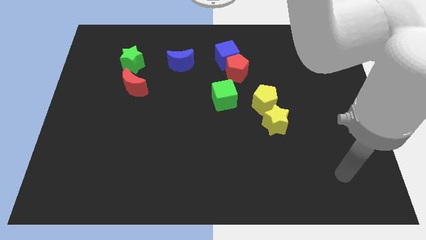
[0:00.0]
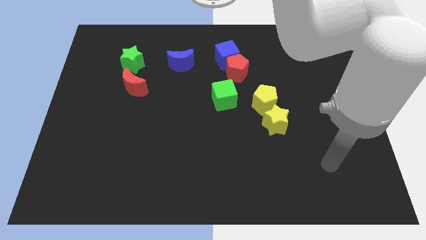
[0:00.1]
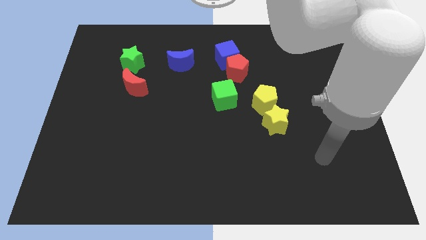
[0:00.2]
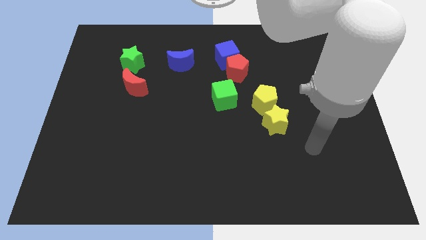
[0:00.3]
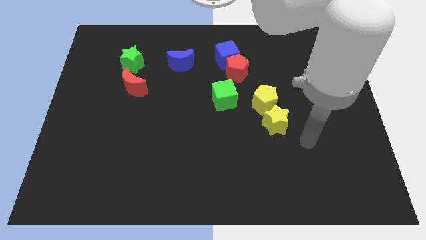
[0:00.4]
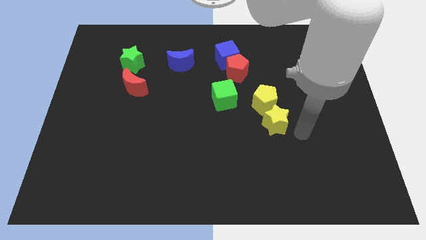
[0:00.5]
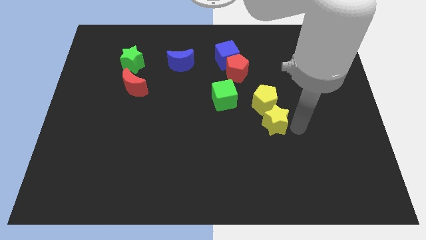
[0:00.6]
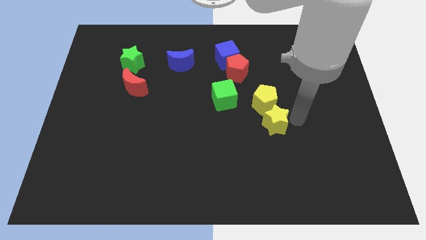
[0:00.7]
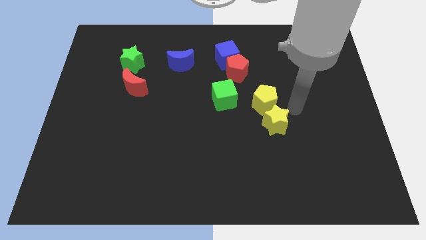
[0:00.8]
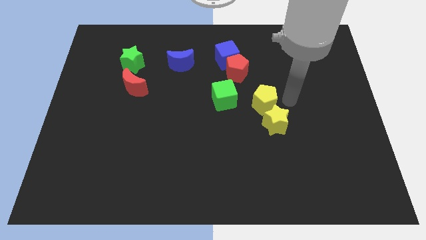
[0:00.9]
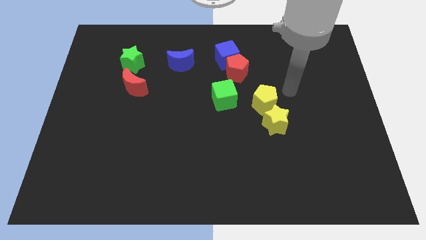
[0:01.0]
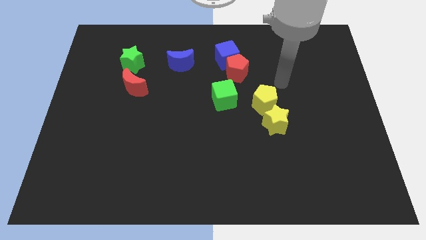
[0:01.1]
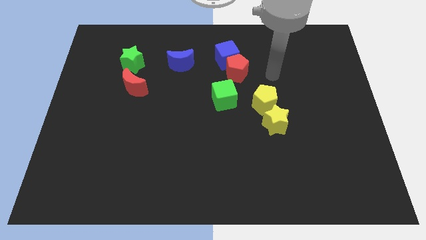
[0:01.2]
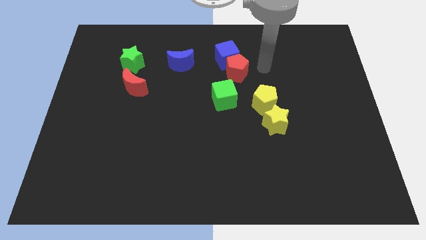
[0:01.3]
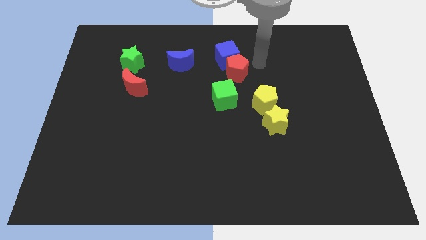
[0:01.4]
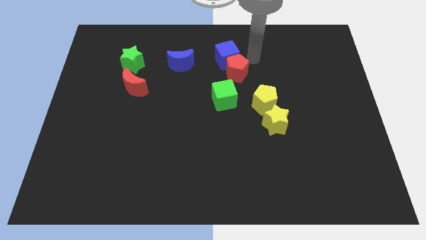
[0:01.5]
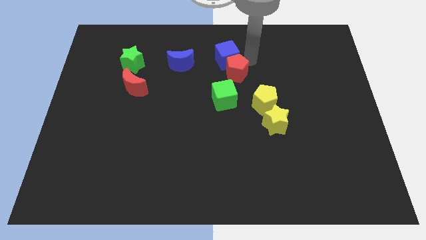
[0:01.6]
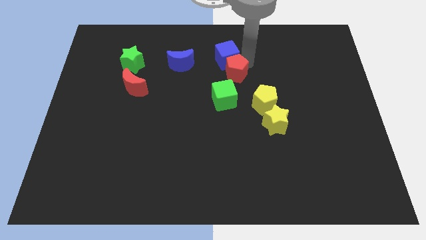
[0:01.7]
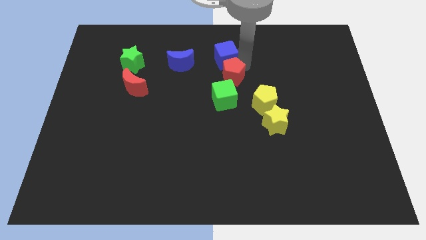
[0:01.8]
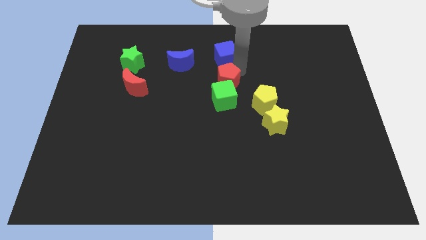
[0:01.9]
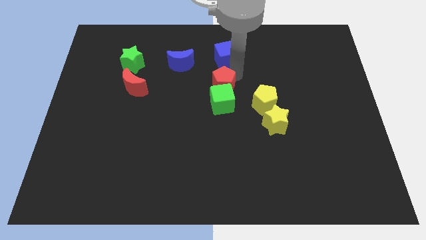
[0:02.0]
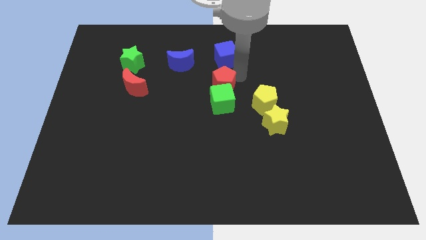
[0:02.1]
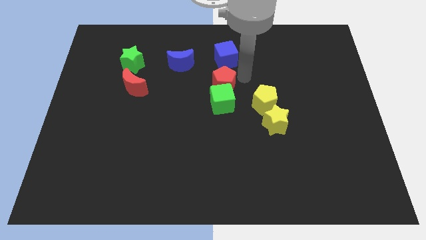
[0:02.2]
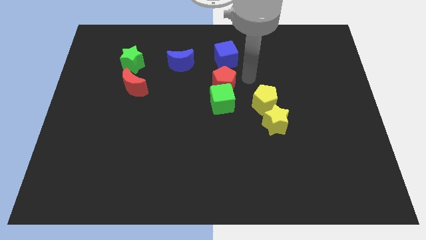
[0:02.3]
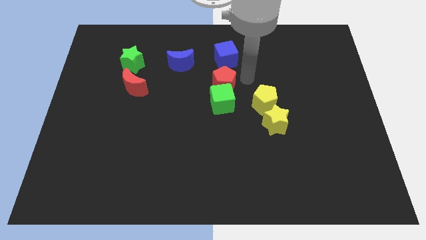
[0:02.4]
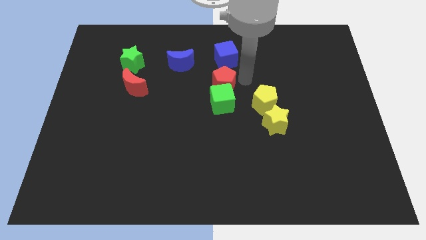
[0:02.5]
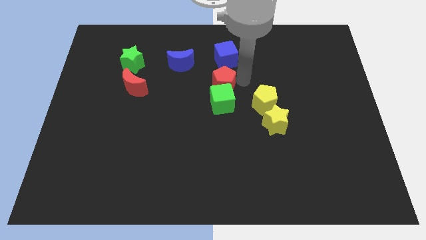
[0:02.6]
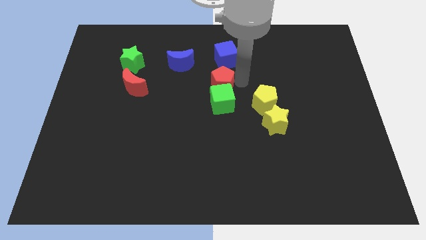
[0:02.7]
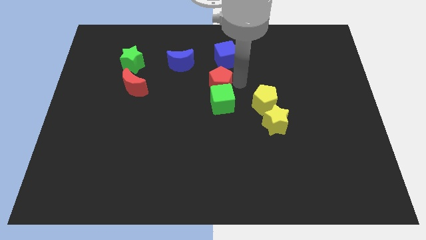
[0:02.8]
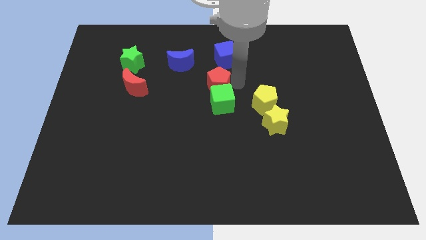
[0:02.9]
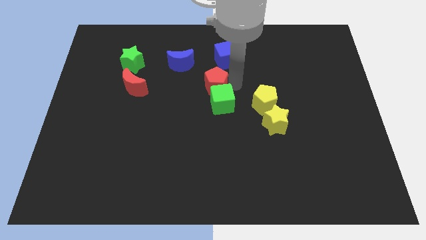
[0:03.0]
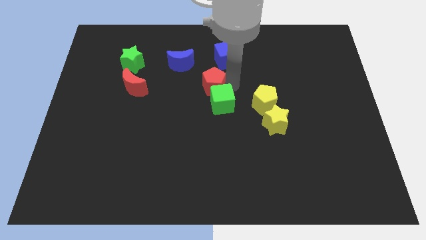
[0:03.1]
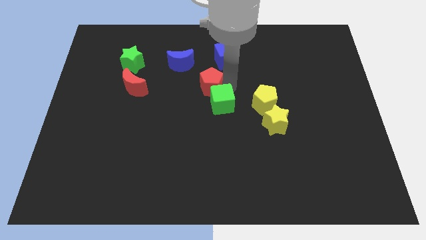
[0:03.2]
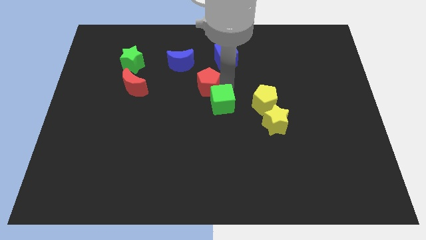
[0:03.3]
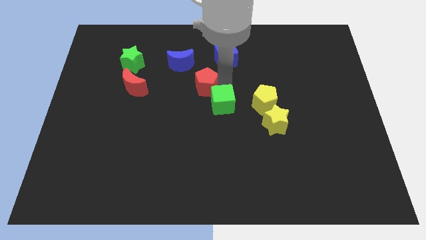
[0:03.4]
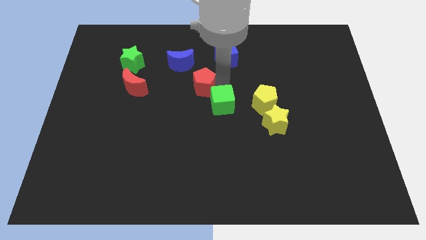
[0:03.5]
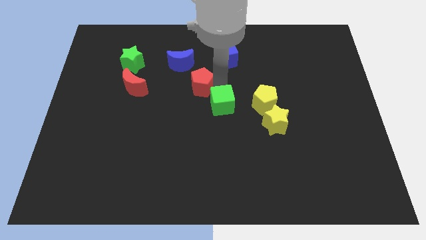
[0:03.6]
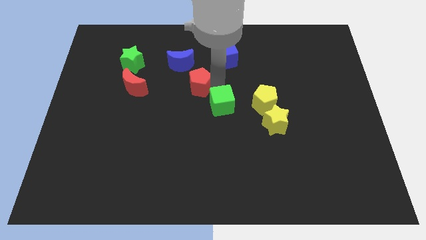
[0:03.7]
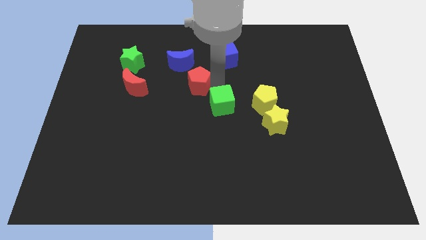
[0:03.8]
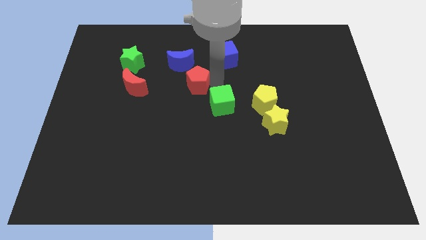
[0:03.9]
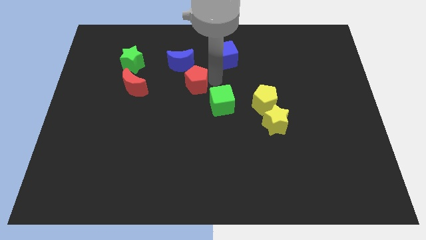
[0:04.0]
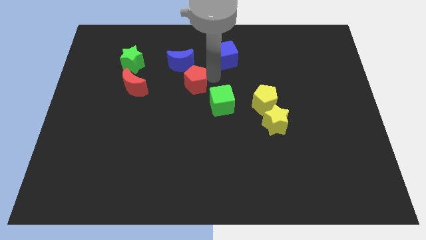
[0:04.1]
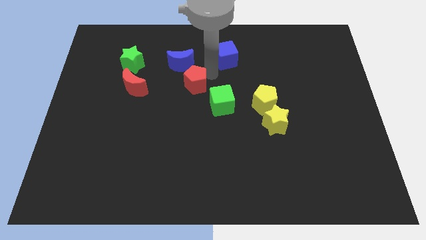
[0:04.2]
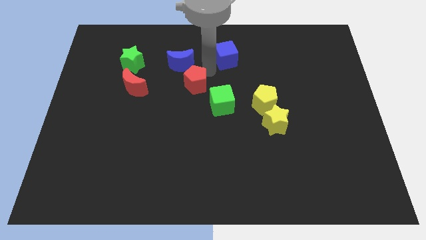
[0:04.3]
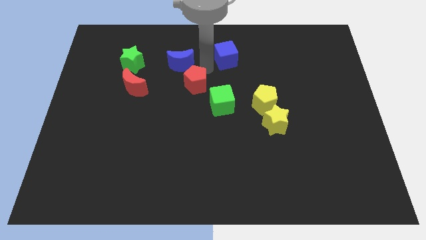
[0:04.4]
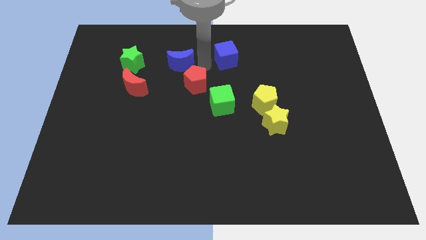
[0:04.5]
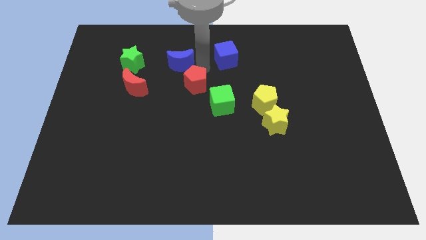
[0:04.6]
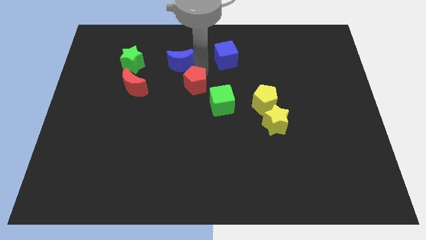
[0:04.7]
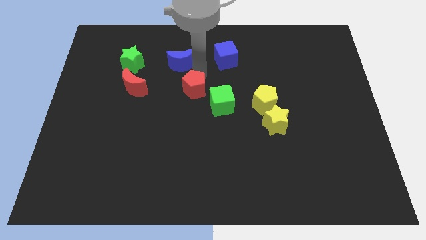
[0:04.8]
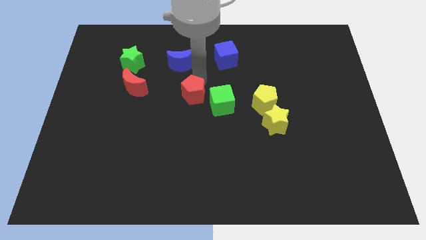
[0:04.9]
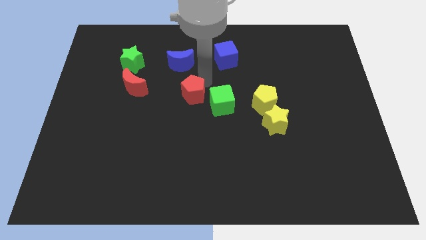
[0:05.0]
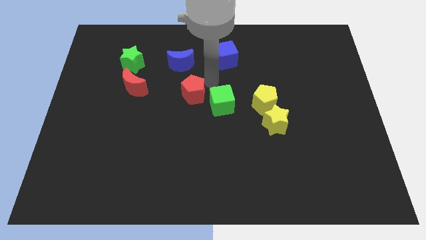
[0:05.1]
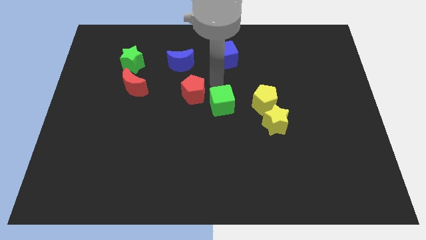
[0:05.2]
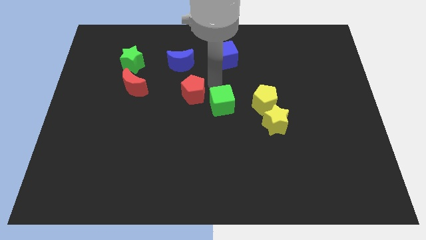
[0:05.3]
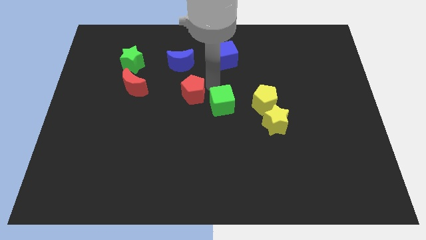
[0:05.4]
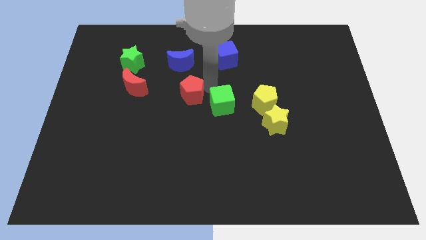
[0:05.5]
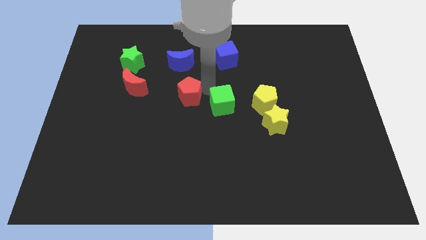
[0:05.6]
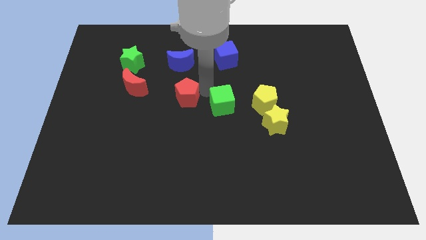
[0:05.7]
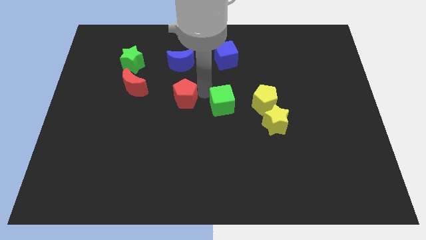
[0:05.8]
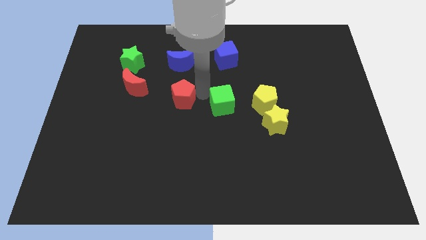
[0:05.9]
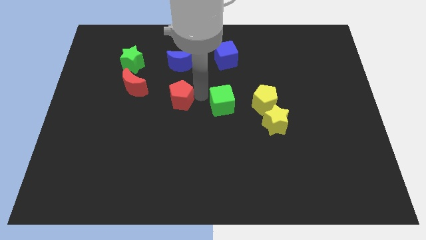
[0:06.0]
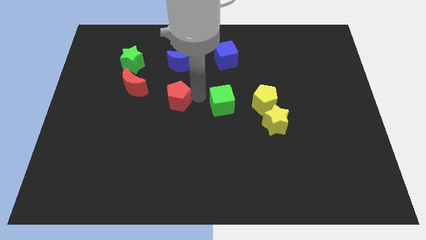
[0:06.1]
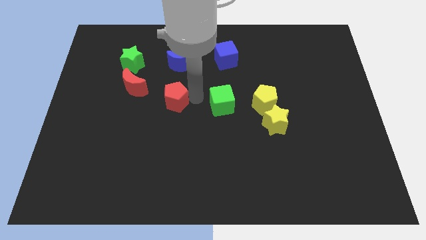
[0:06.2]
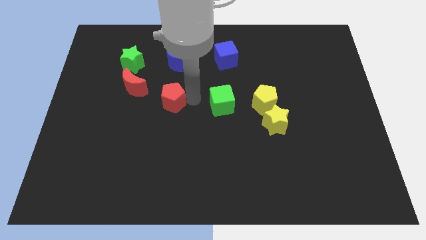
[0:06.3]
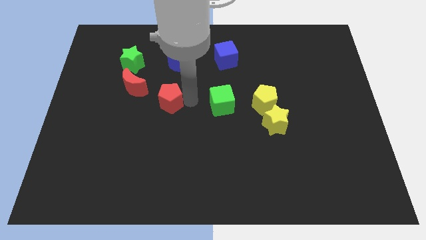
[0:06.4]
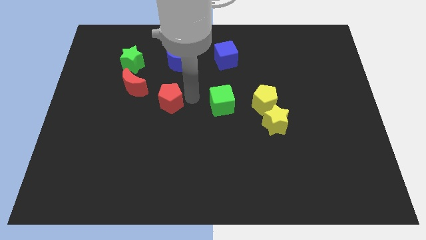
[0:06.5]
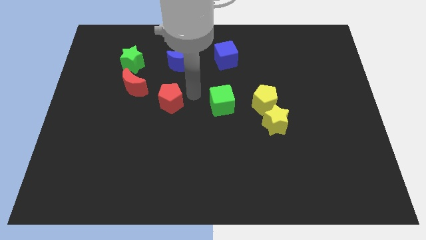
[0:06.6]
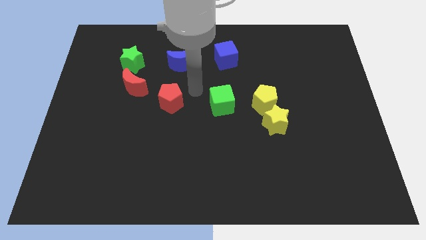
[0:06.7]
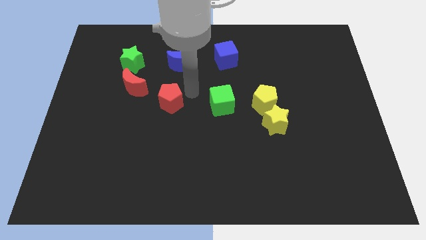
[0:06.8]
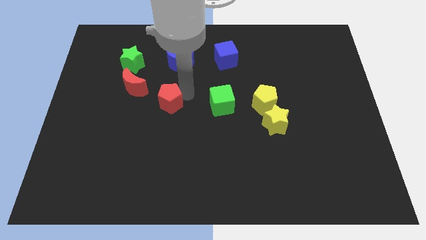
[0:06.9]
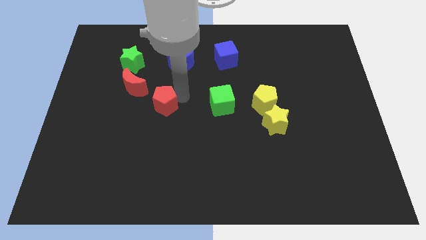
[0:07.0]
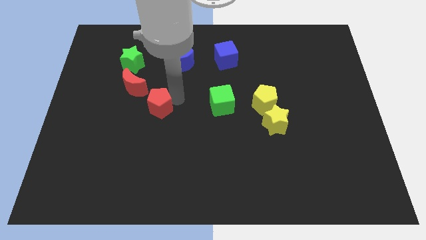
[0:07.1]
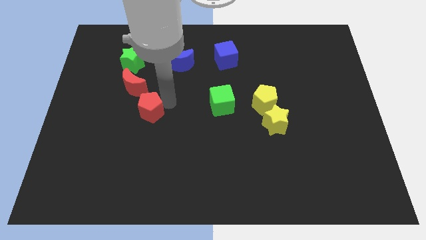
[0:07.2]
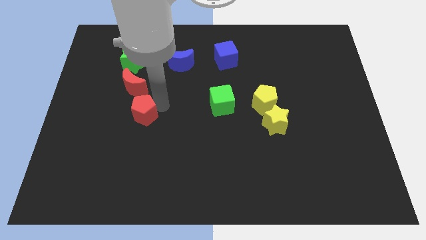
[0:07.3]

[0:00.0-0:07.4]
move the red pentagon to the bottom of the red moon
